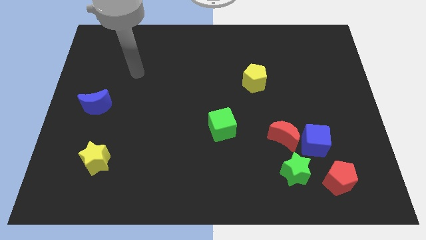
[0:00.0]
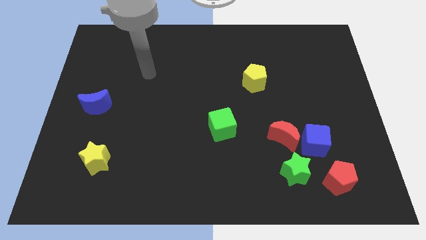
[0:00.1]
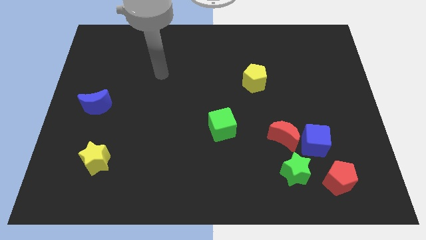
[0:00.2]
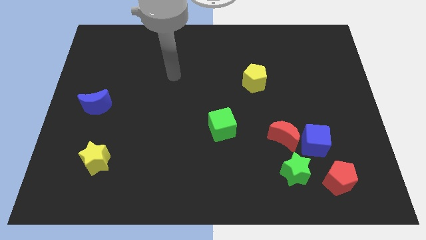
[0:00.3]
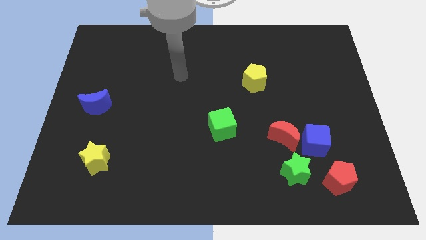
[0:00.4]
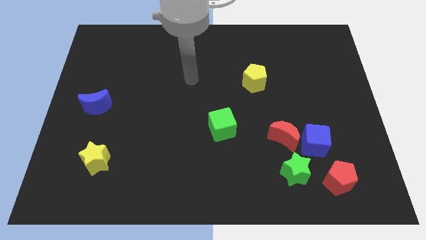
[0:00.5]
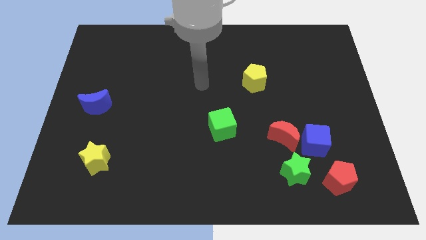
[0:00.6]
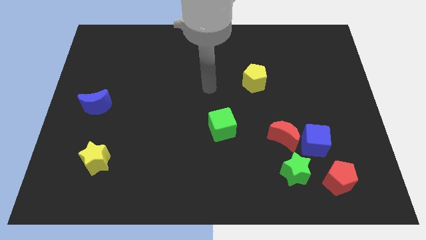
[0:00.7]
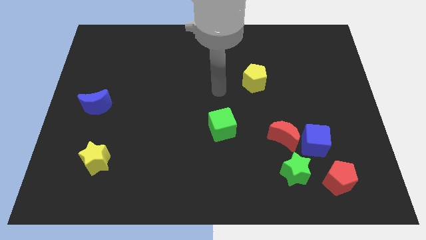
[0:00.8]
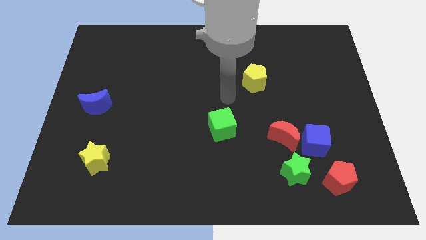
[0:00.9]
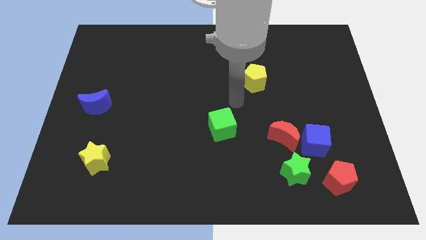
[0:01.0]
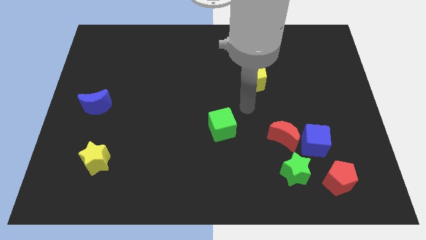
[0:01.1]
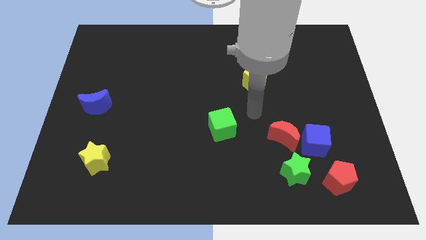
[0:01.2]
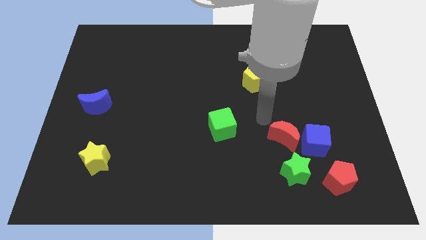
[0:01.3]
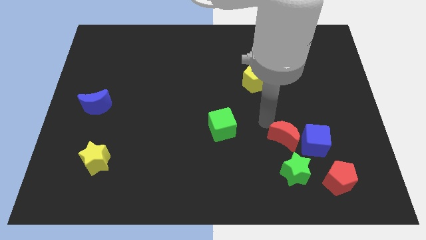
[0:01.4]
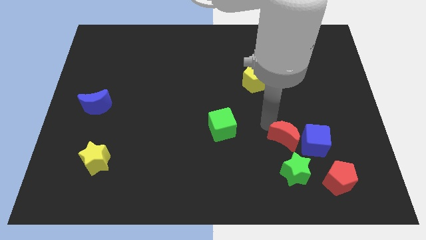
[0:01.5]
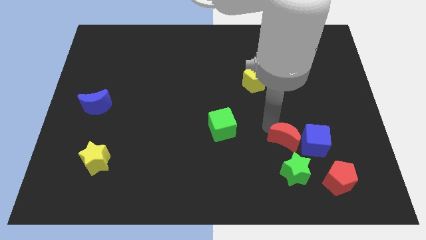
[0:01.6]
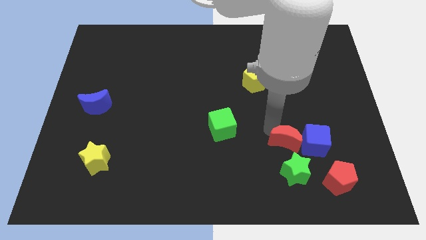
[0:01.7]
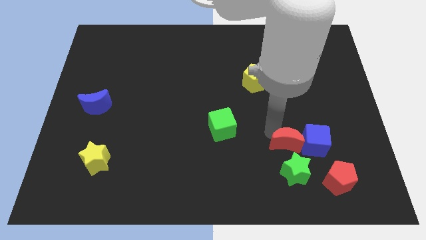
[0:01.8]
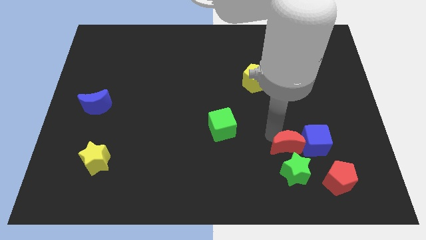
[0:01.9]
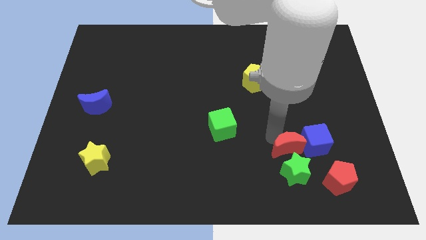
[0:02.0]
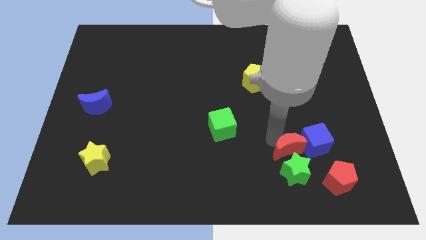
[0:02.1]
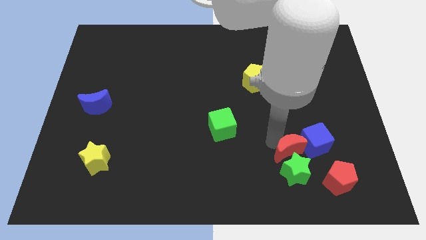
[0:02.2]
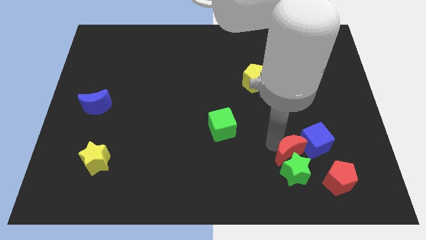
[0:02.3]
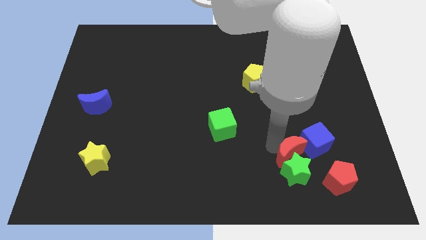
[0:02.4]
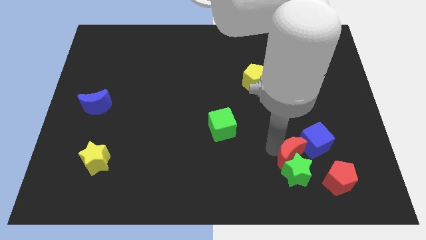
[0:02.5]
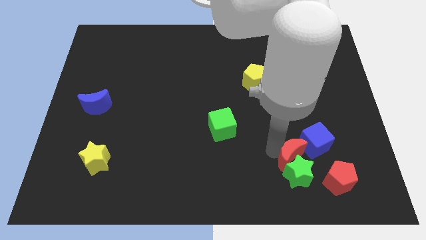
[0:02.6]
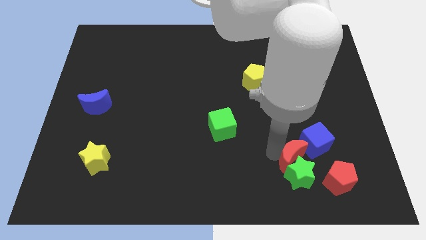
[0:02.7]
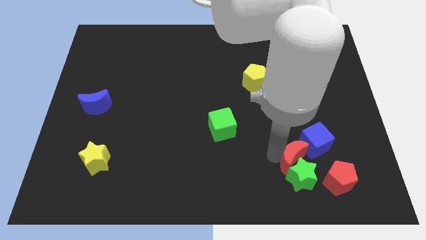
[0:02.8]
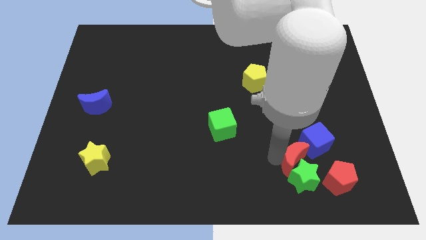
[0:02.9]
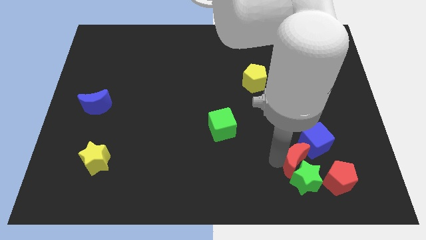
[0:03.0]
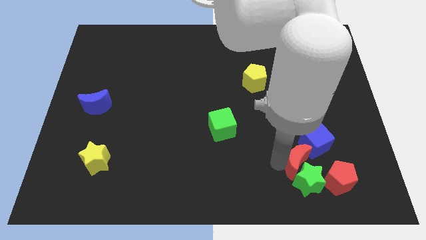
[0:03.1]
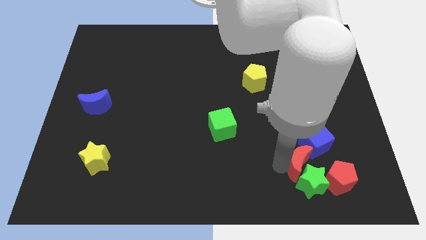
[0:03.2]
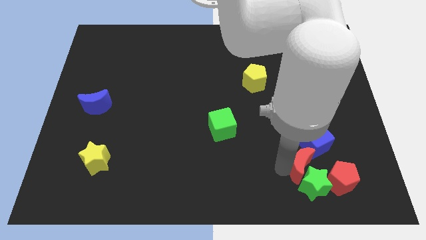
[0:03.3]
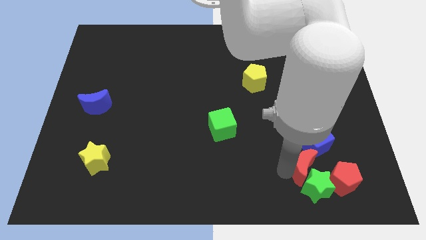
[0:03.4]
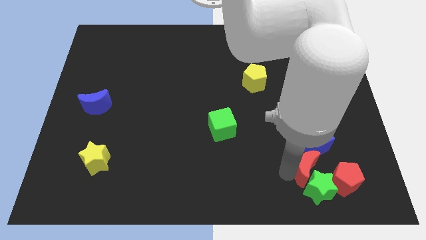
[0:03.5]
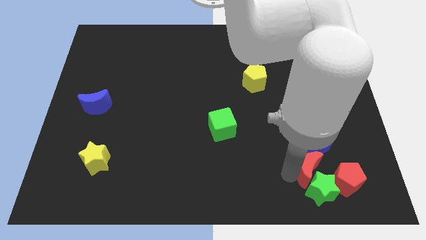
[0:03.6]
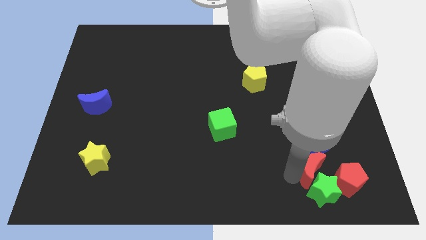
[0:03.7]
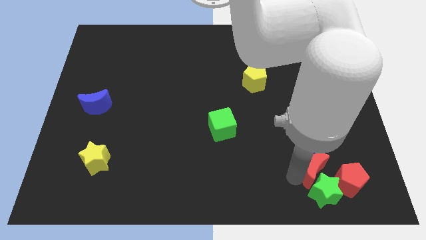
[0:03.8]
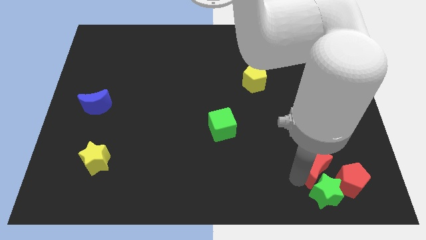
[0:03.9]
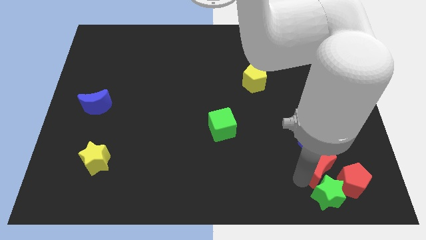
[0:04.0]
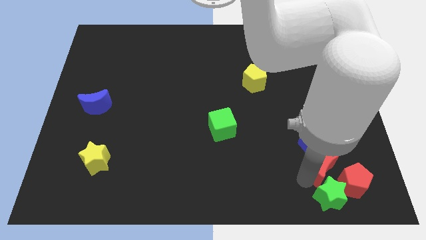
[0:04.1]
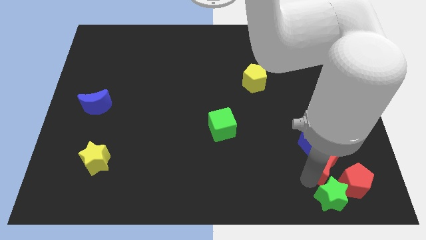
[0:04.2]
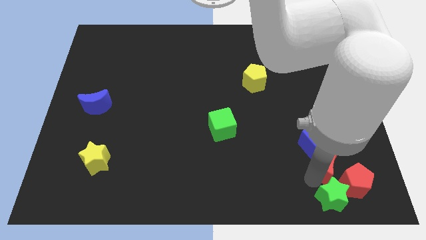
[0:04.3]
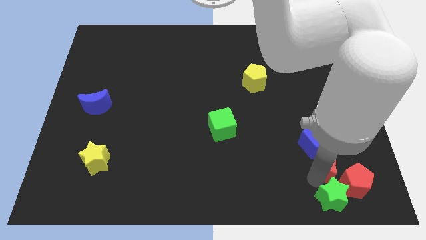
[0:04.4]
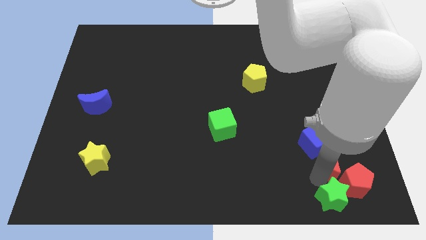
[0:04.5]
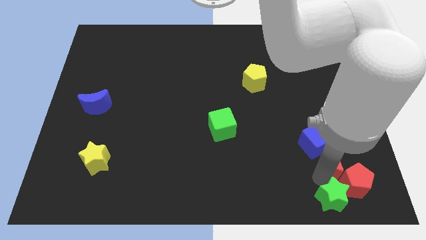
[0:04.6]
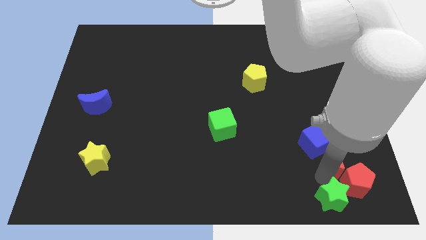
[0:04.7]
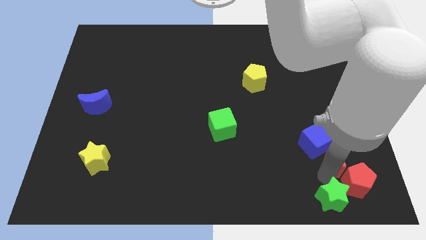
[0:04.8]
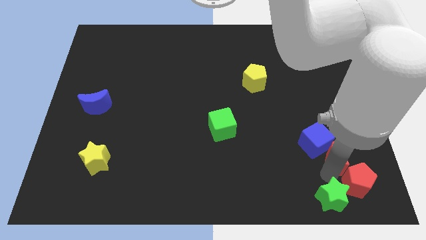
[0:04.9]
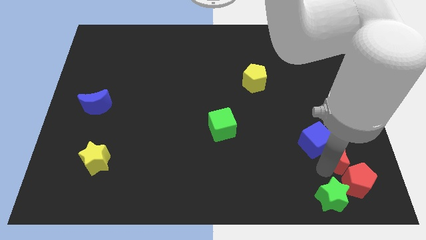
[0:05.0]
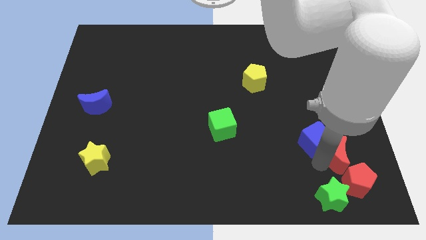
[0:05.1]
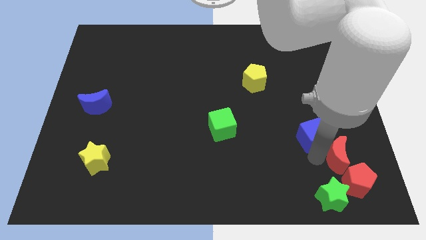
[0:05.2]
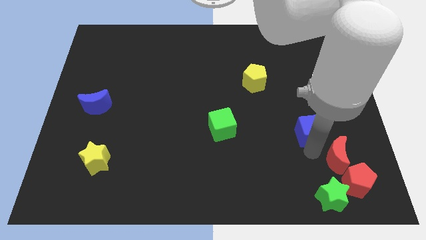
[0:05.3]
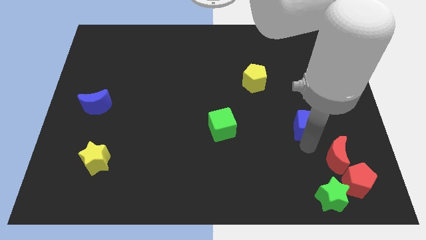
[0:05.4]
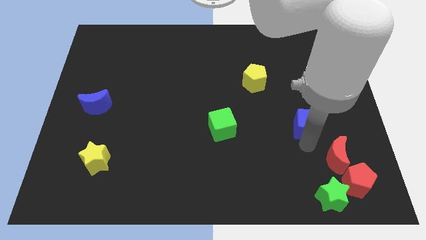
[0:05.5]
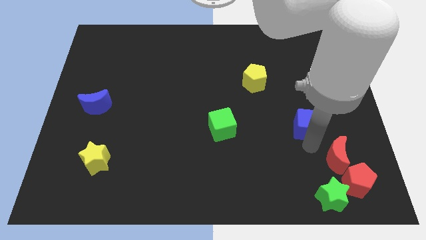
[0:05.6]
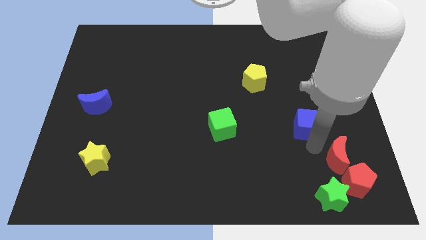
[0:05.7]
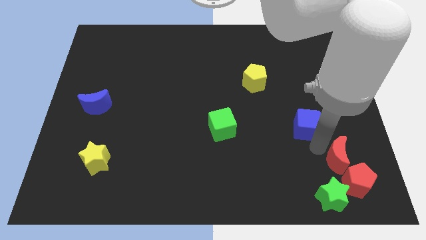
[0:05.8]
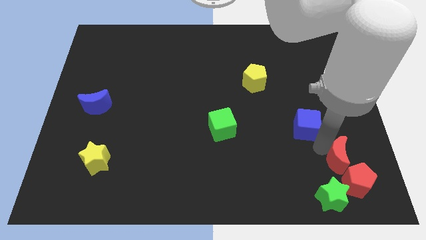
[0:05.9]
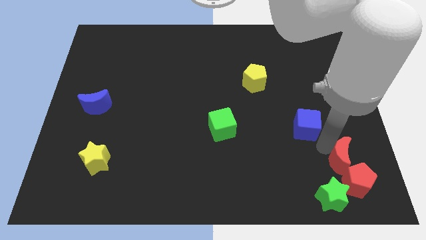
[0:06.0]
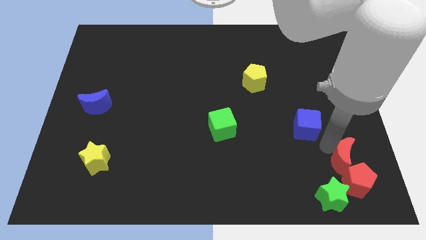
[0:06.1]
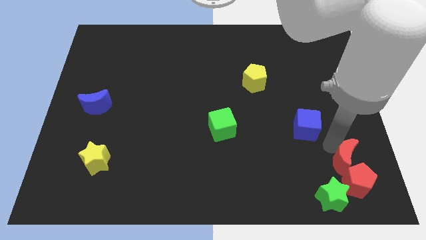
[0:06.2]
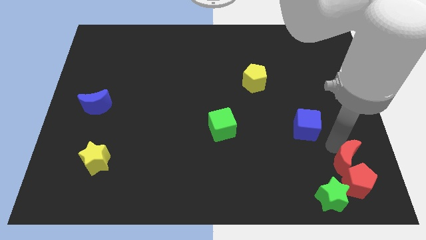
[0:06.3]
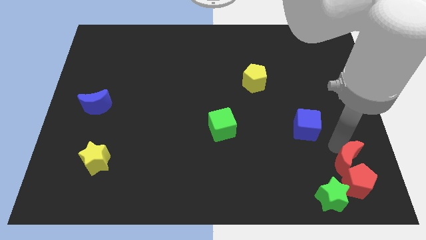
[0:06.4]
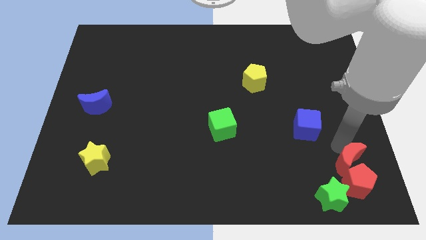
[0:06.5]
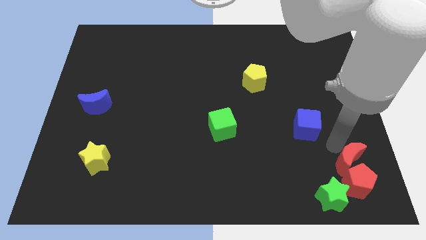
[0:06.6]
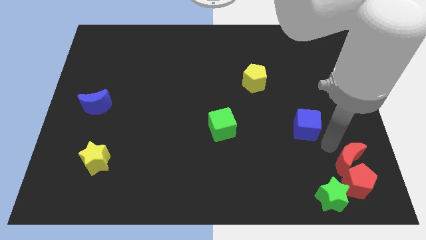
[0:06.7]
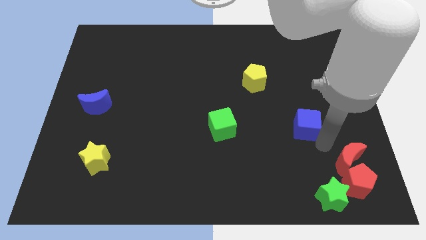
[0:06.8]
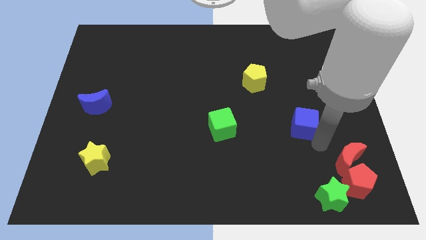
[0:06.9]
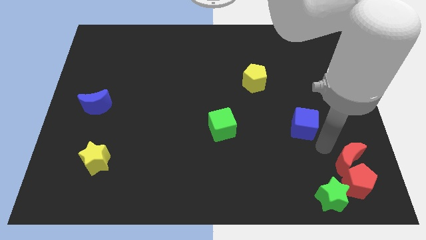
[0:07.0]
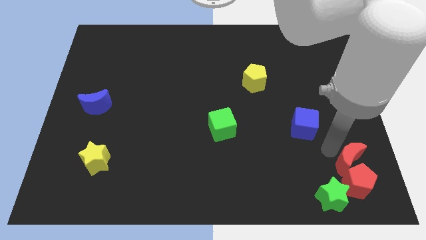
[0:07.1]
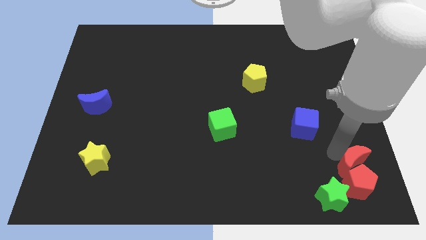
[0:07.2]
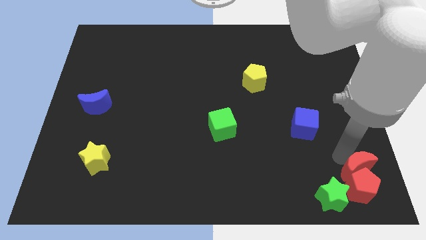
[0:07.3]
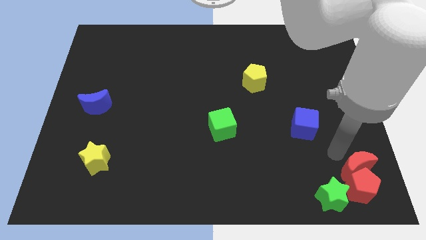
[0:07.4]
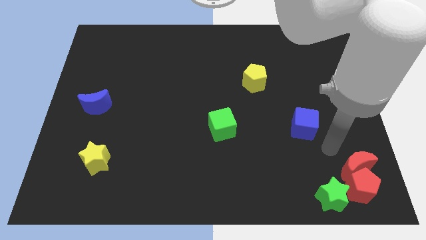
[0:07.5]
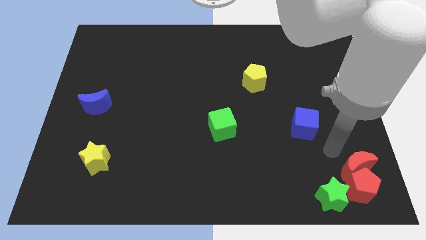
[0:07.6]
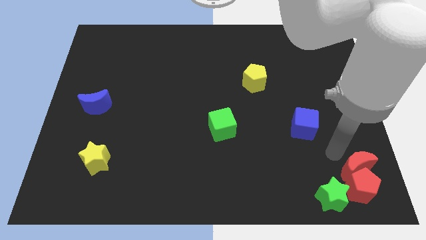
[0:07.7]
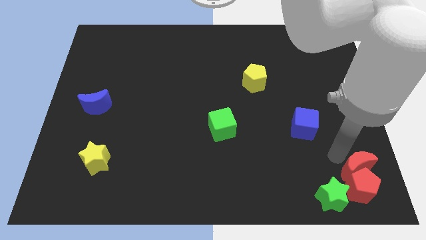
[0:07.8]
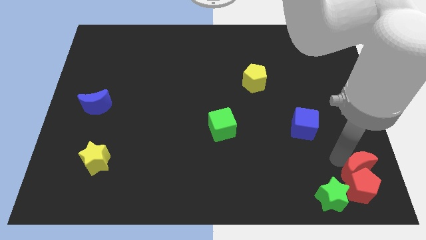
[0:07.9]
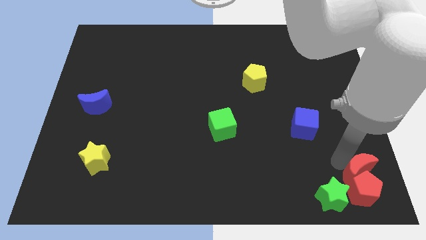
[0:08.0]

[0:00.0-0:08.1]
slide the red moon to the bottom right
